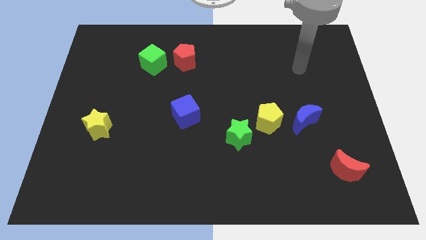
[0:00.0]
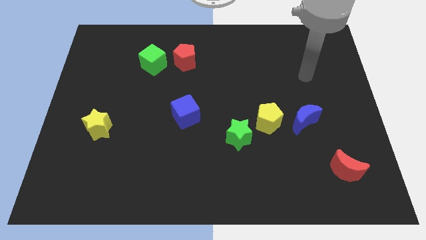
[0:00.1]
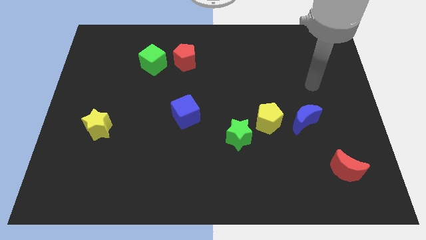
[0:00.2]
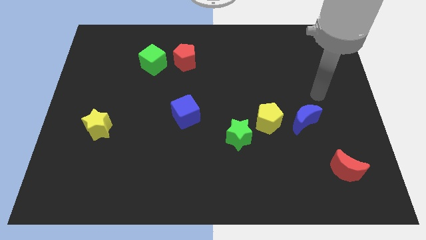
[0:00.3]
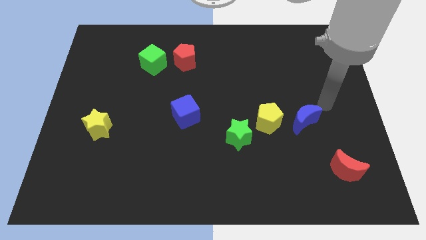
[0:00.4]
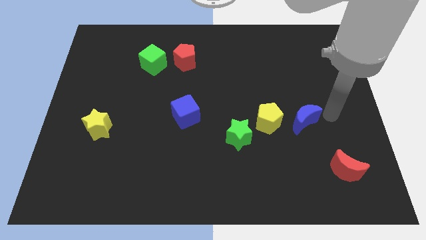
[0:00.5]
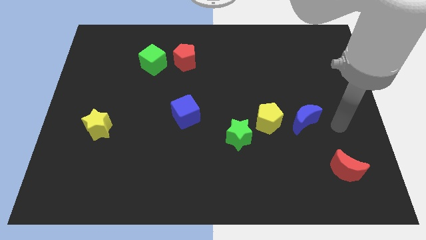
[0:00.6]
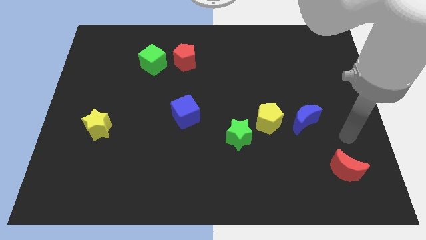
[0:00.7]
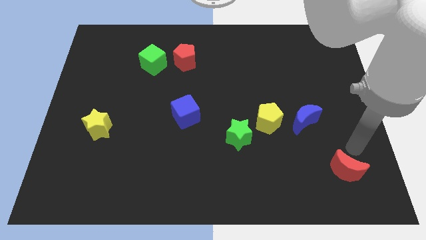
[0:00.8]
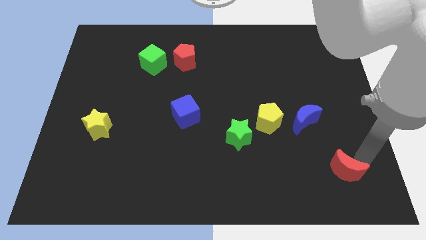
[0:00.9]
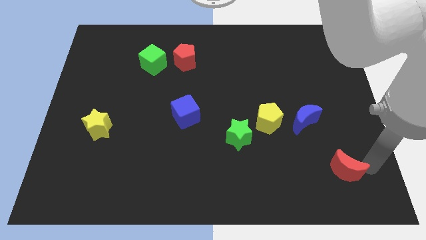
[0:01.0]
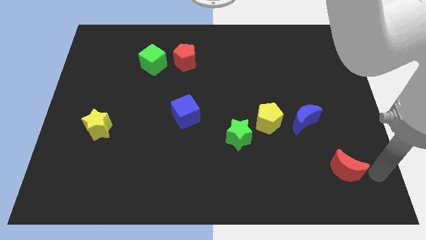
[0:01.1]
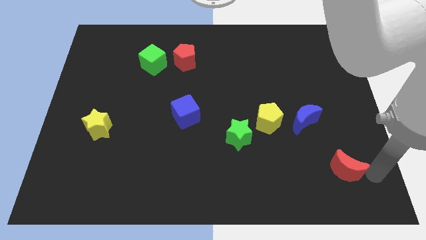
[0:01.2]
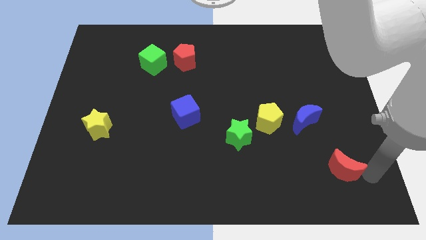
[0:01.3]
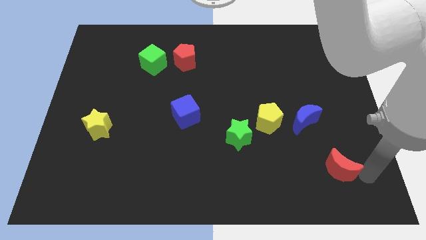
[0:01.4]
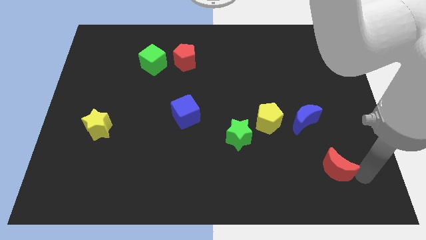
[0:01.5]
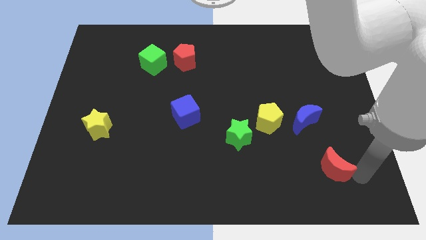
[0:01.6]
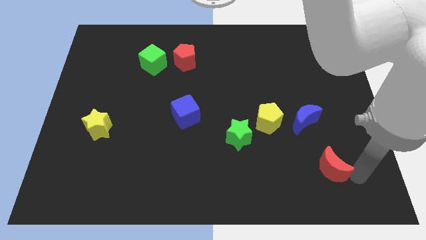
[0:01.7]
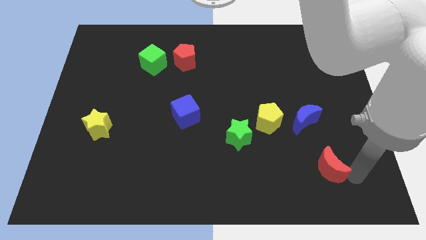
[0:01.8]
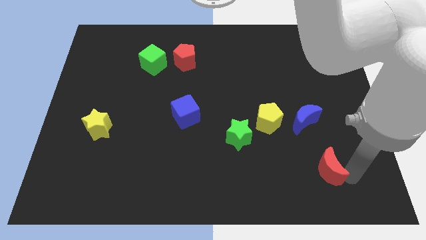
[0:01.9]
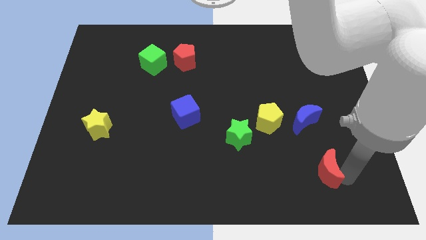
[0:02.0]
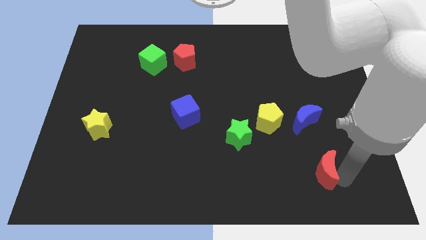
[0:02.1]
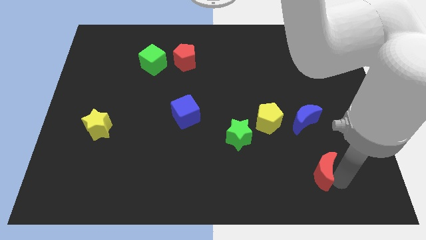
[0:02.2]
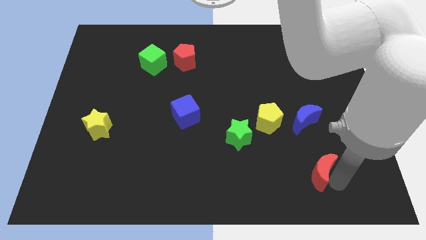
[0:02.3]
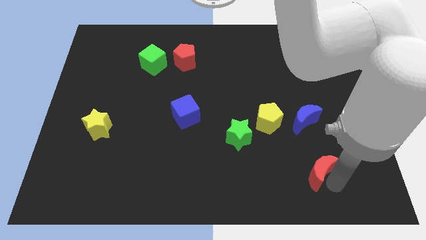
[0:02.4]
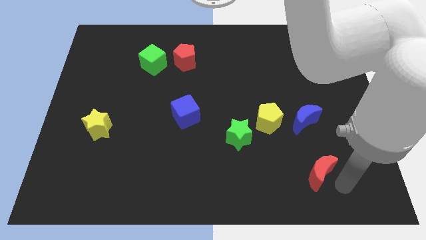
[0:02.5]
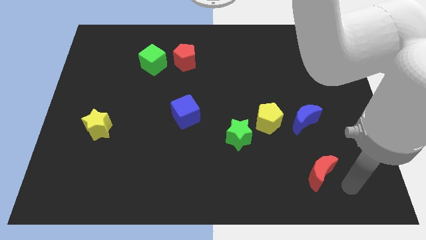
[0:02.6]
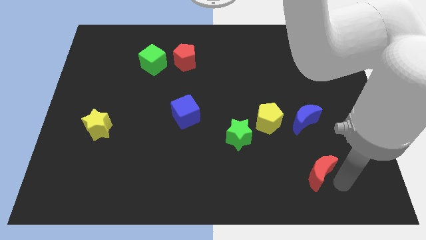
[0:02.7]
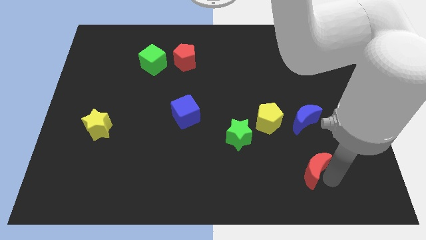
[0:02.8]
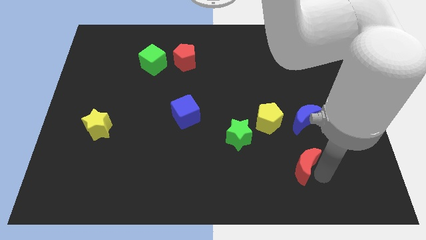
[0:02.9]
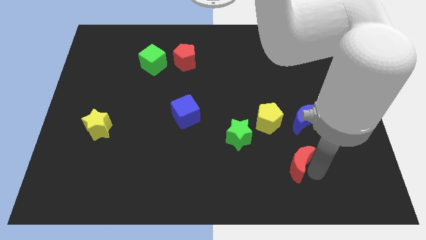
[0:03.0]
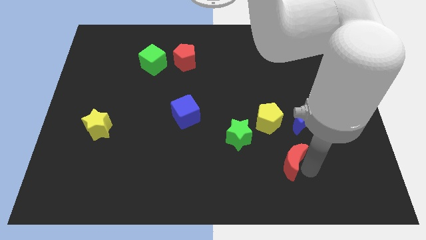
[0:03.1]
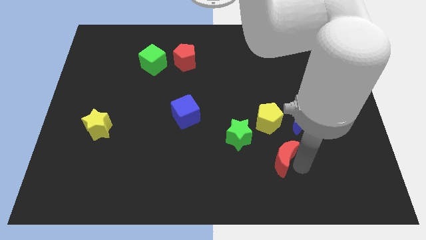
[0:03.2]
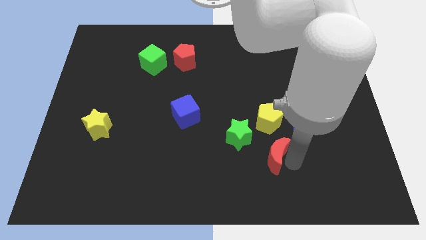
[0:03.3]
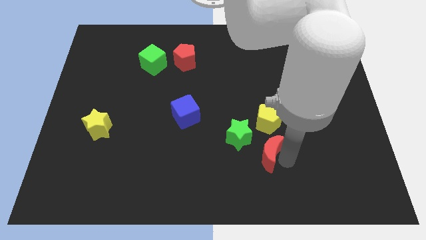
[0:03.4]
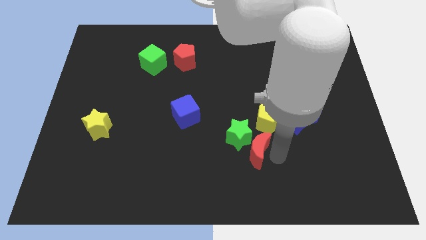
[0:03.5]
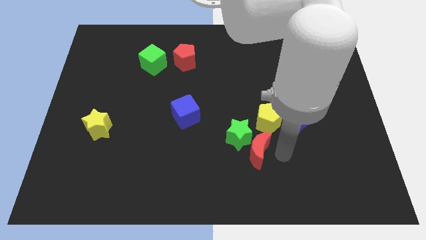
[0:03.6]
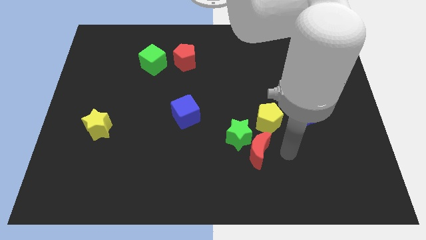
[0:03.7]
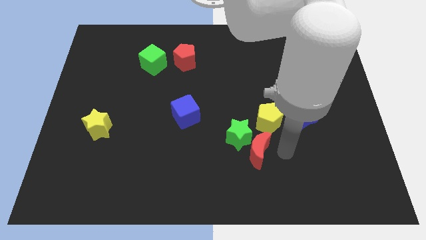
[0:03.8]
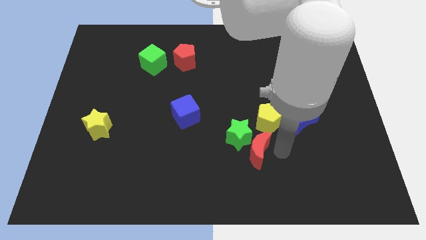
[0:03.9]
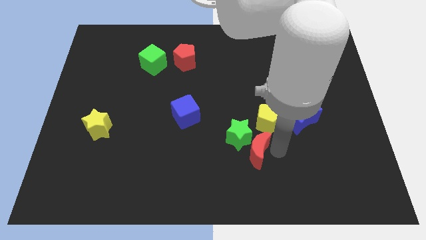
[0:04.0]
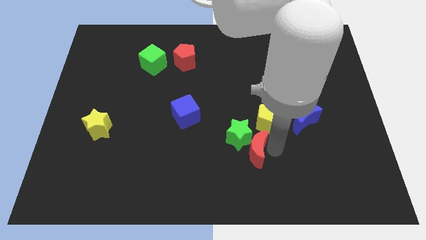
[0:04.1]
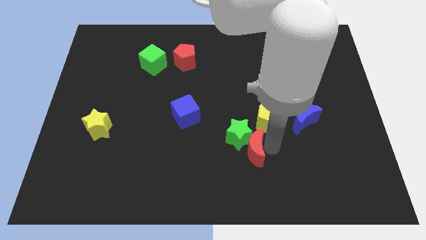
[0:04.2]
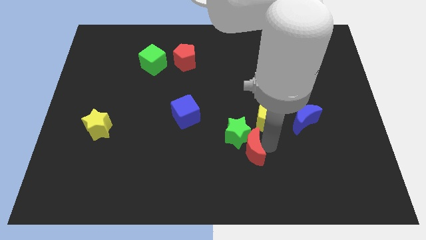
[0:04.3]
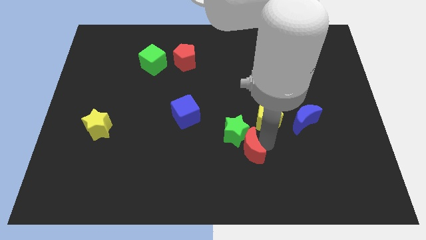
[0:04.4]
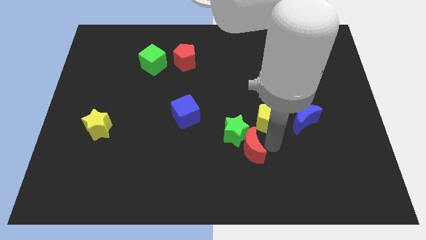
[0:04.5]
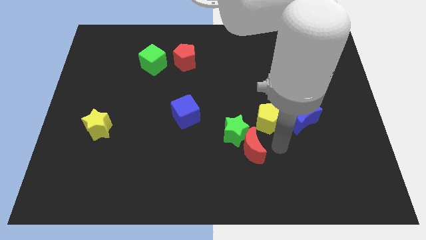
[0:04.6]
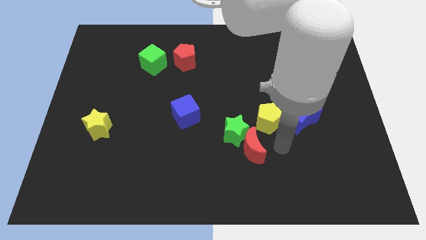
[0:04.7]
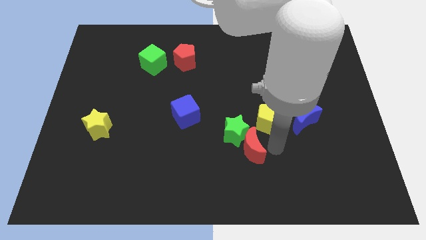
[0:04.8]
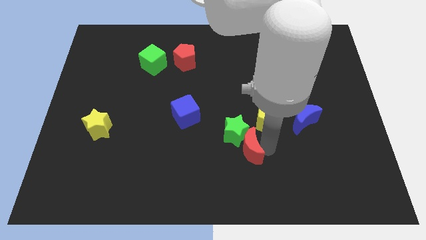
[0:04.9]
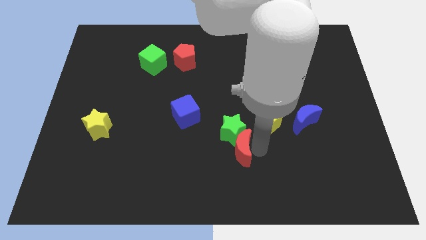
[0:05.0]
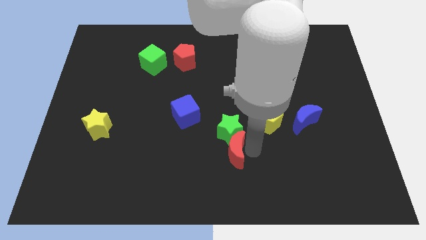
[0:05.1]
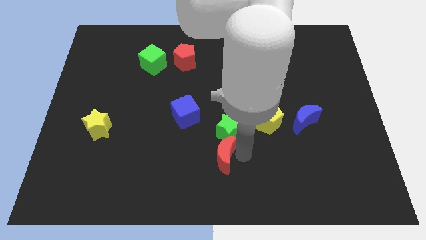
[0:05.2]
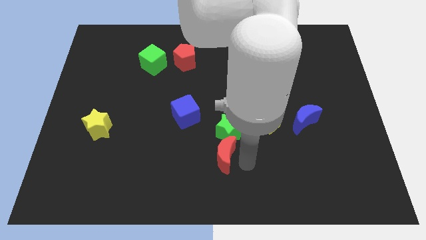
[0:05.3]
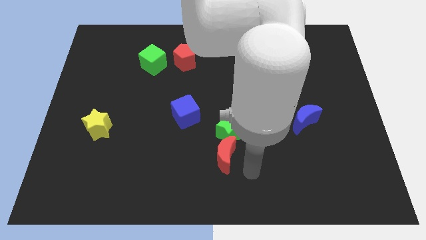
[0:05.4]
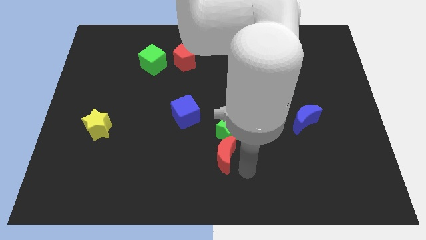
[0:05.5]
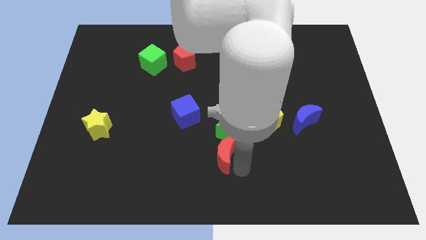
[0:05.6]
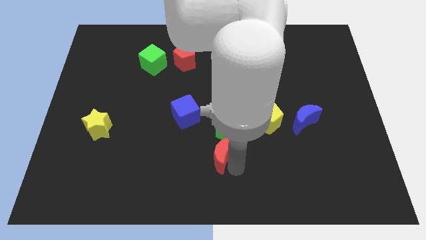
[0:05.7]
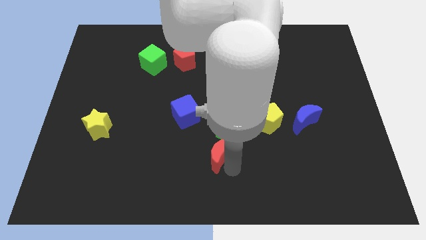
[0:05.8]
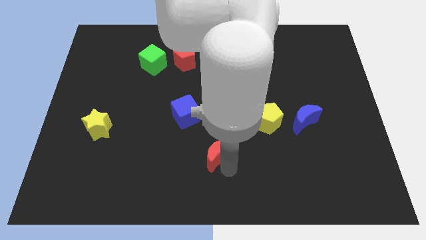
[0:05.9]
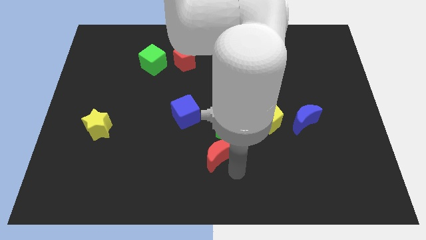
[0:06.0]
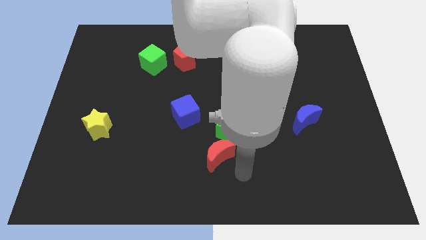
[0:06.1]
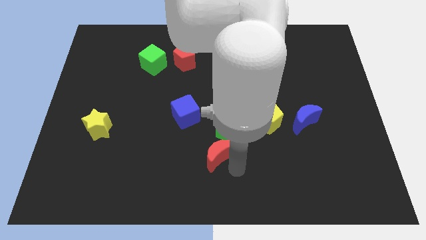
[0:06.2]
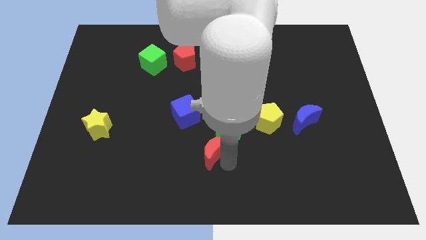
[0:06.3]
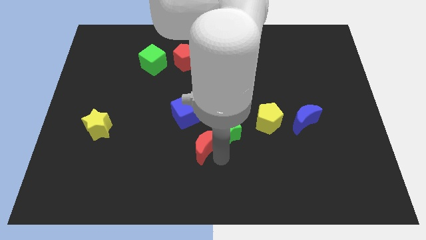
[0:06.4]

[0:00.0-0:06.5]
slide the red moon left of the green star

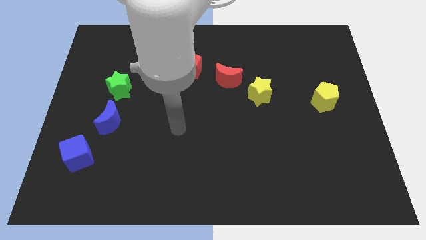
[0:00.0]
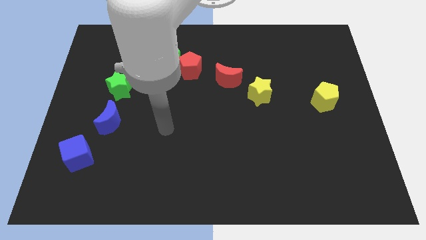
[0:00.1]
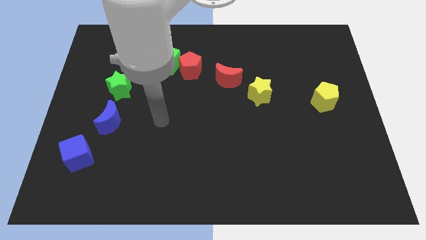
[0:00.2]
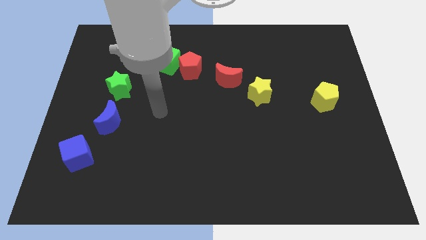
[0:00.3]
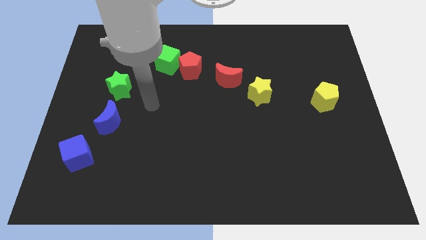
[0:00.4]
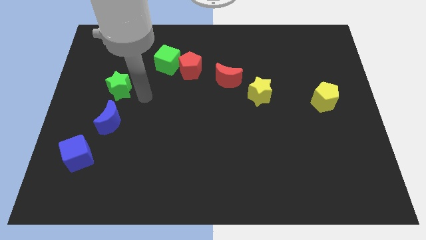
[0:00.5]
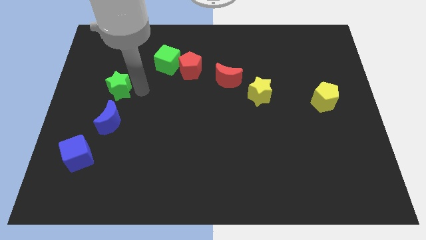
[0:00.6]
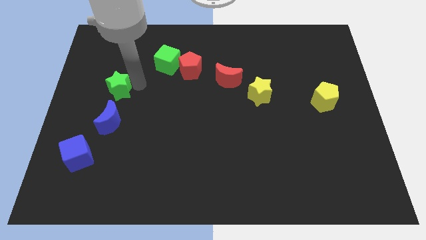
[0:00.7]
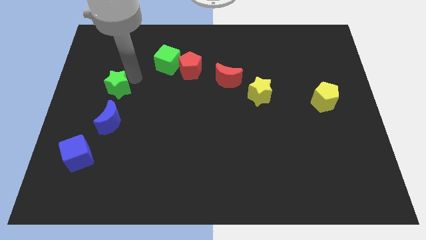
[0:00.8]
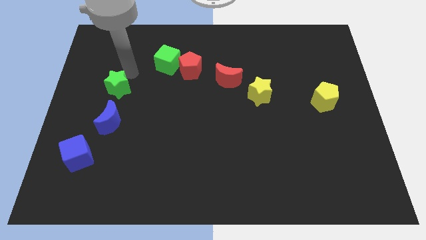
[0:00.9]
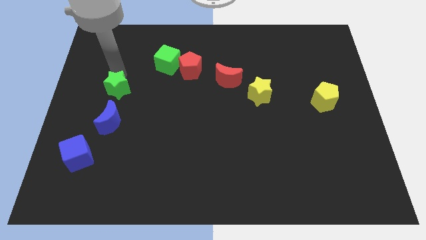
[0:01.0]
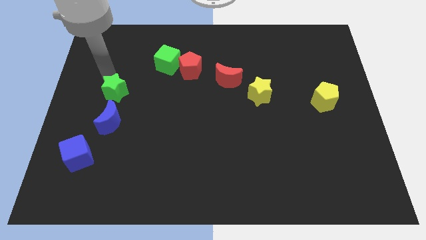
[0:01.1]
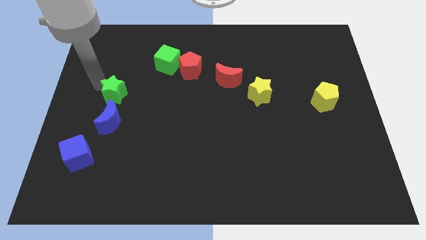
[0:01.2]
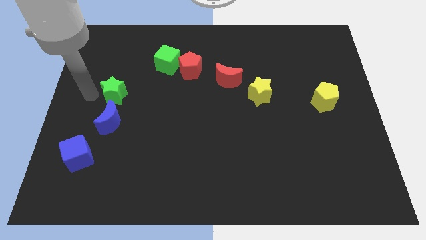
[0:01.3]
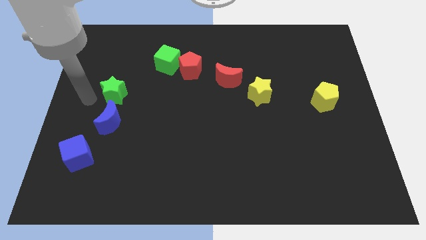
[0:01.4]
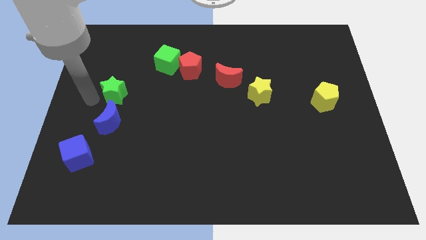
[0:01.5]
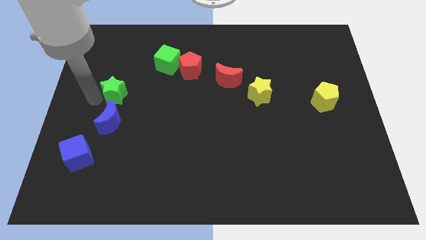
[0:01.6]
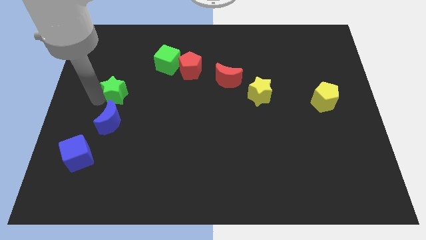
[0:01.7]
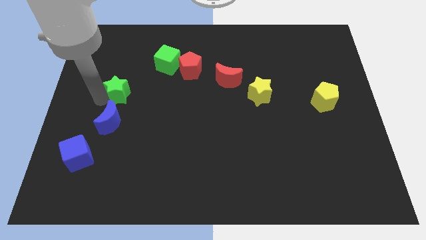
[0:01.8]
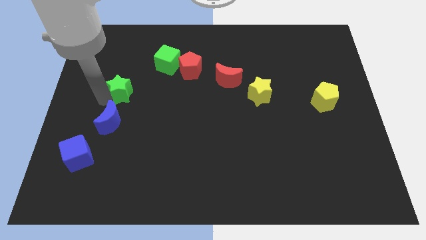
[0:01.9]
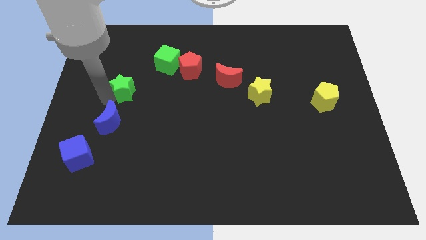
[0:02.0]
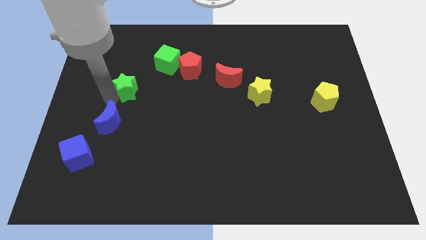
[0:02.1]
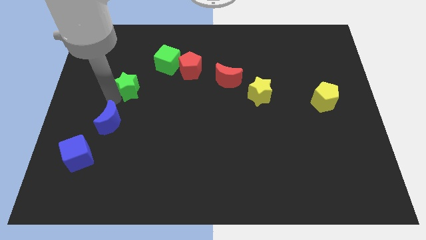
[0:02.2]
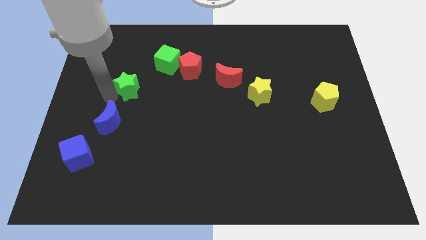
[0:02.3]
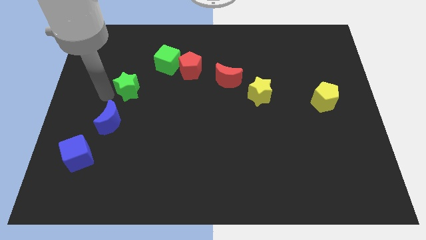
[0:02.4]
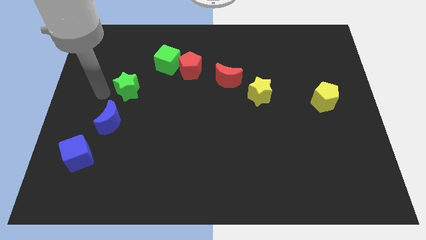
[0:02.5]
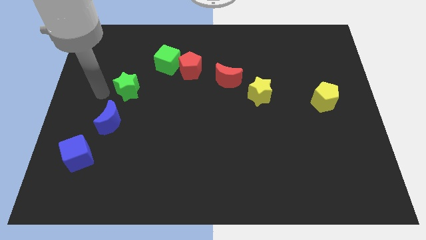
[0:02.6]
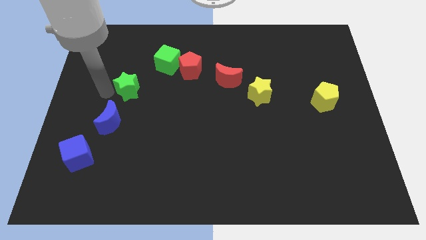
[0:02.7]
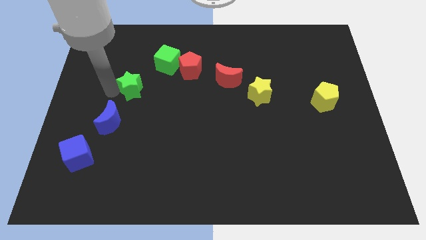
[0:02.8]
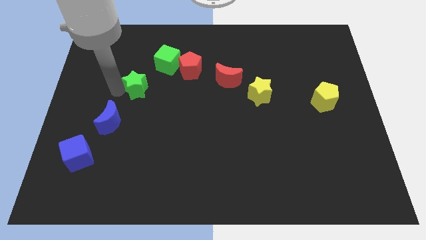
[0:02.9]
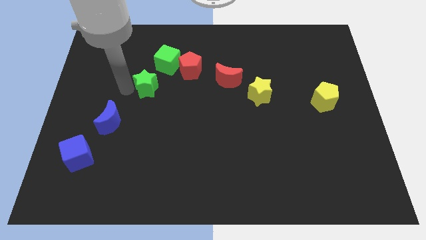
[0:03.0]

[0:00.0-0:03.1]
put the green star to the bottom left of the red pentagon
